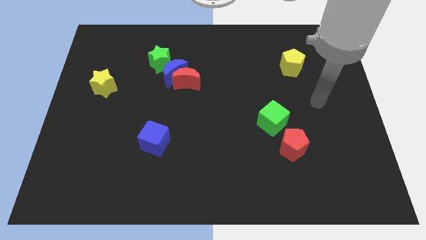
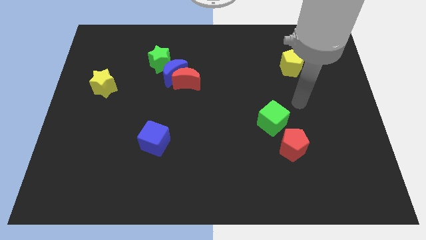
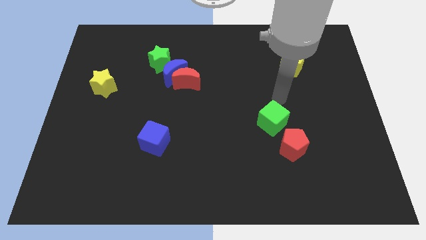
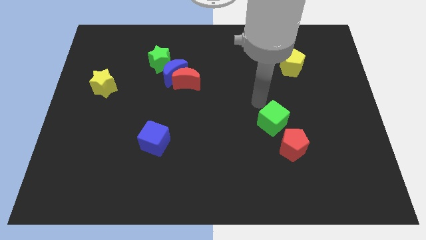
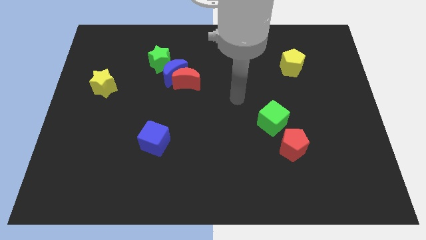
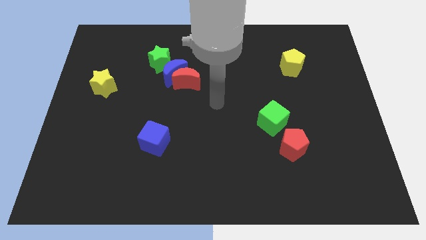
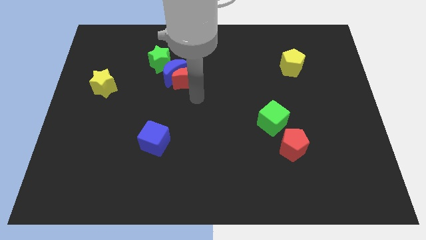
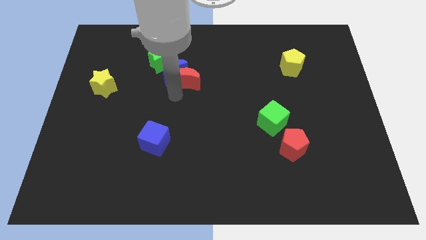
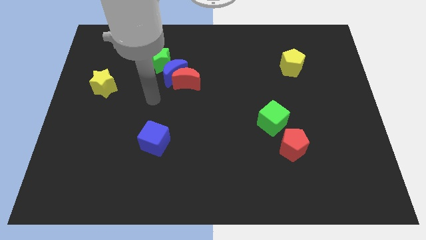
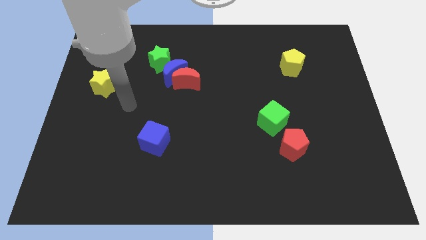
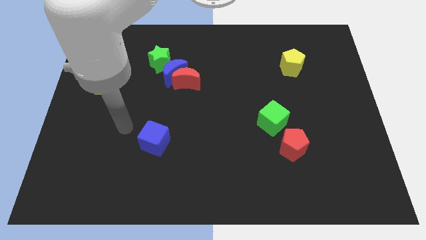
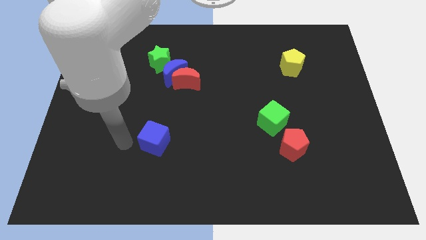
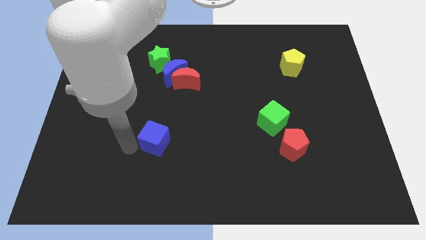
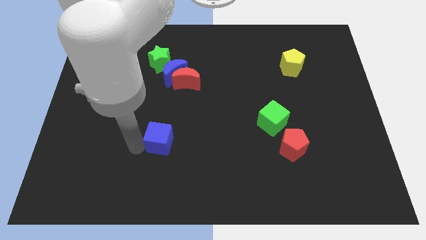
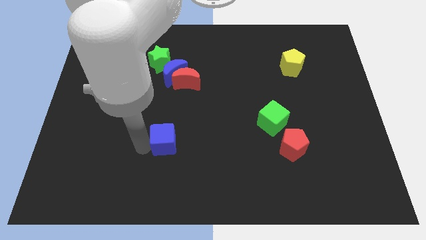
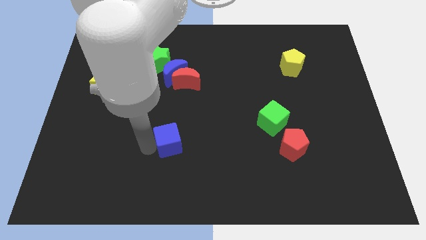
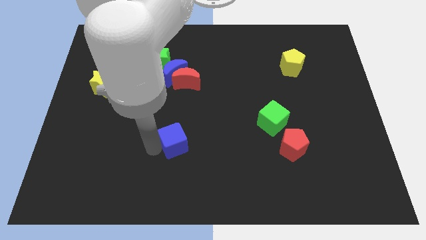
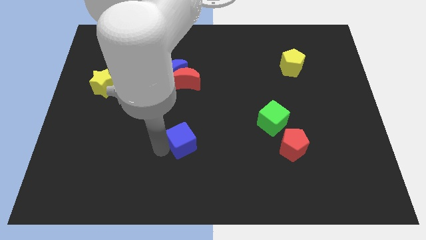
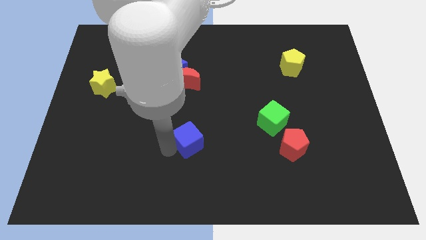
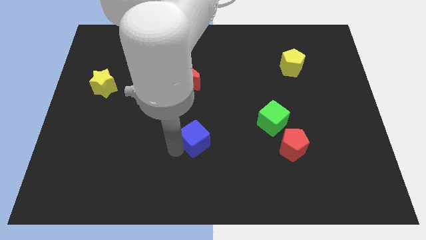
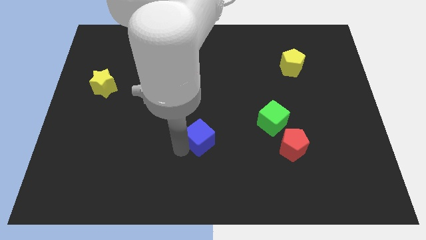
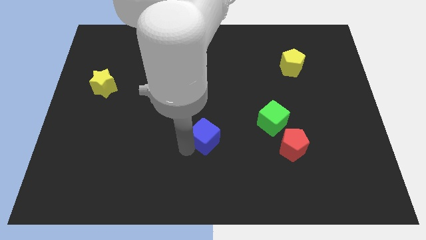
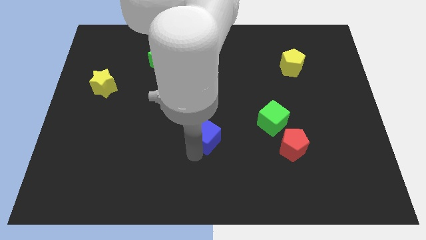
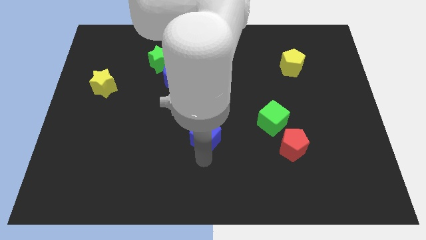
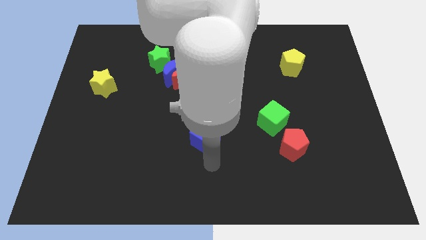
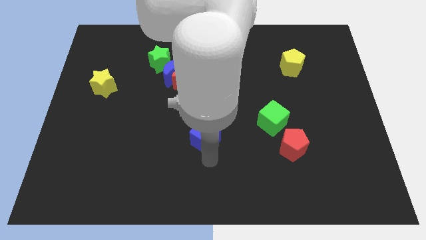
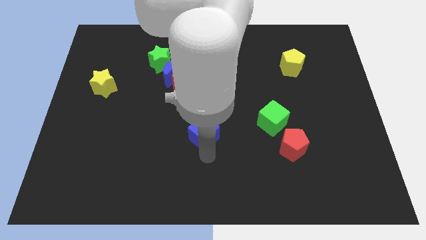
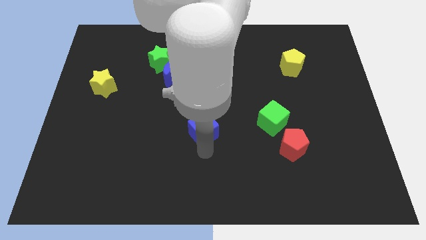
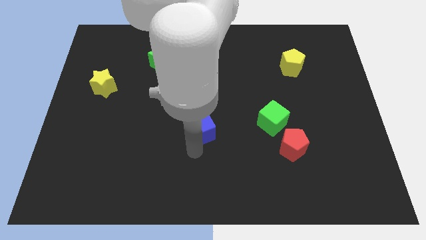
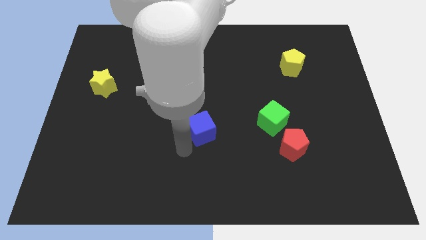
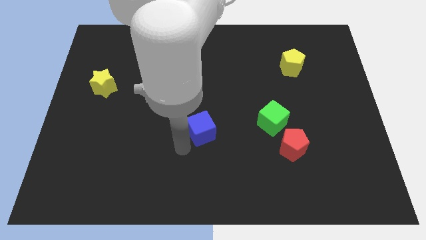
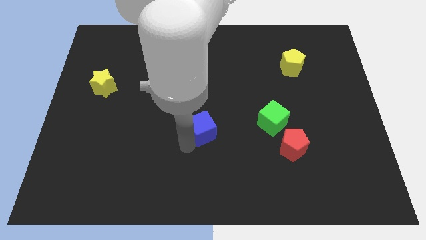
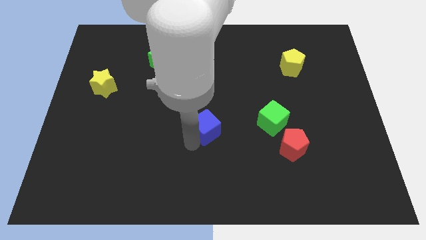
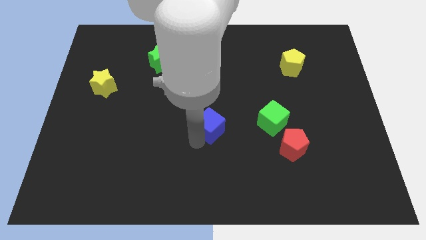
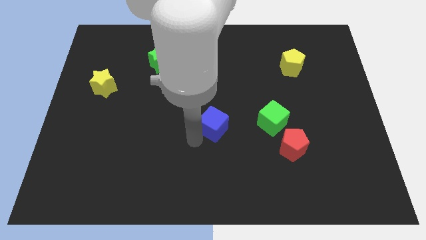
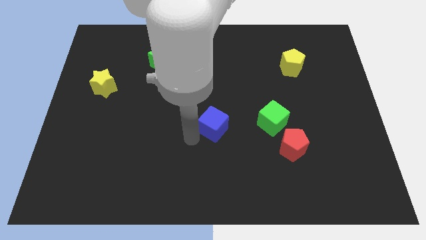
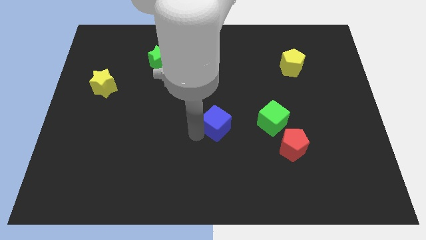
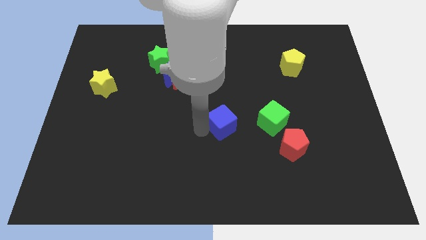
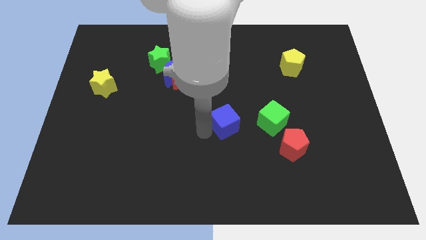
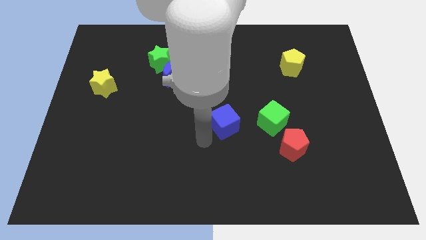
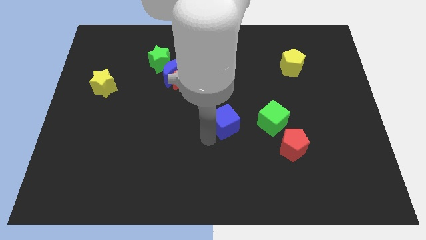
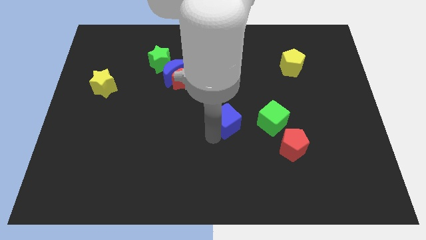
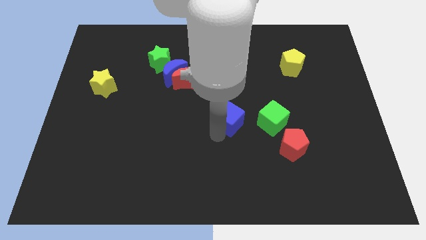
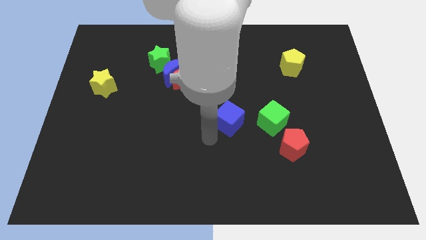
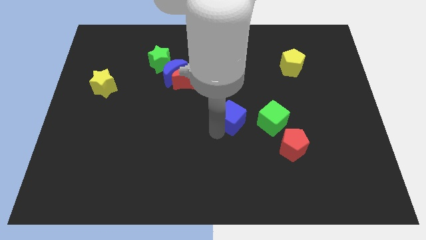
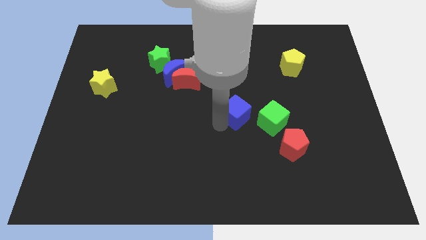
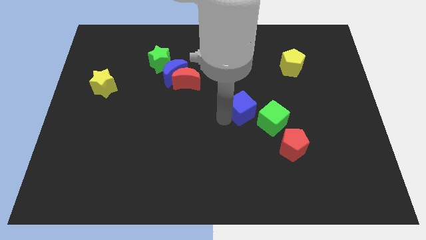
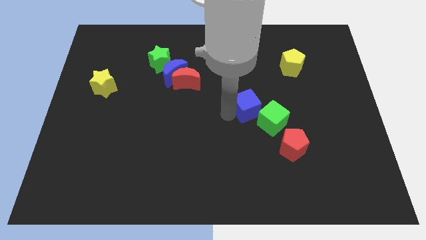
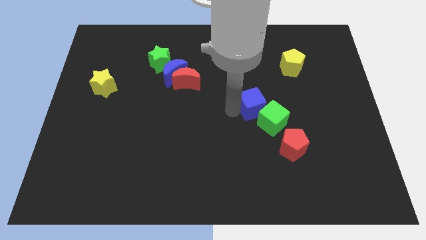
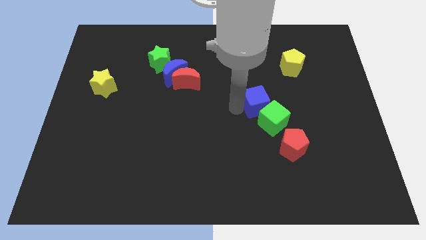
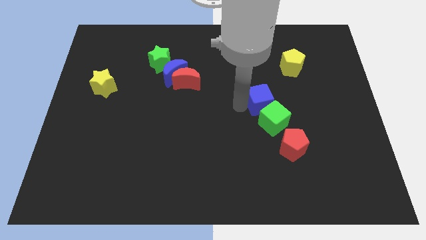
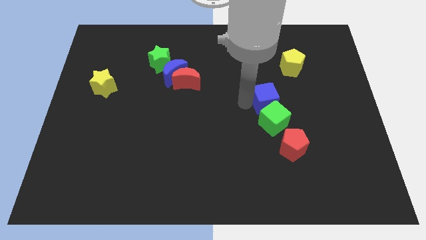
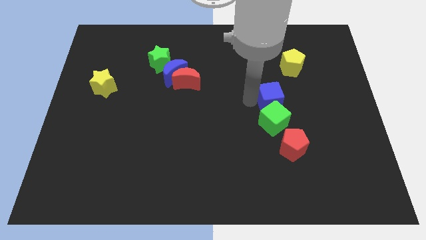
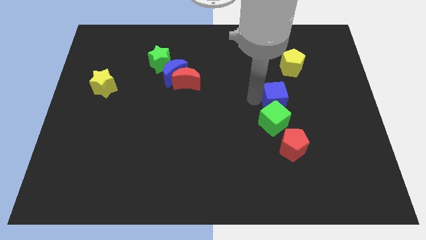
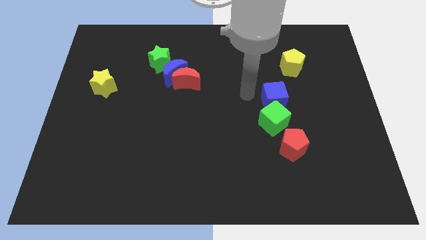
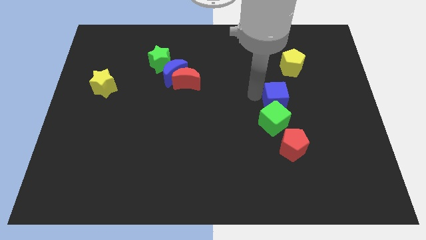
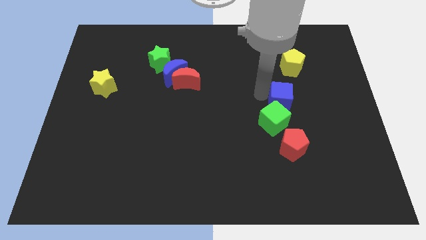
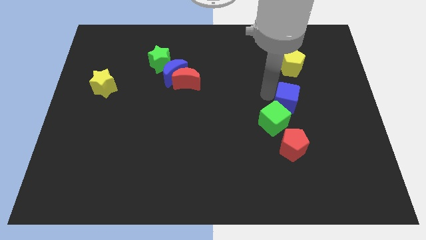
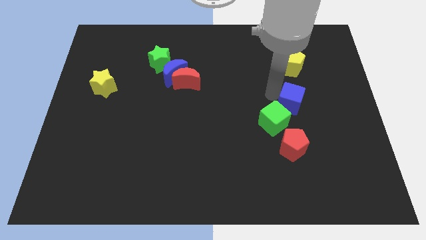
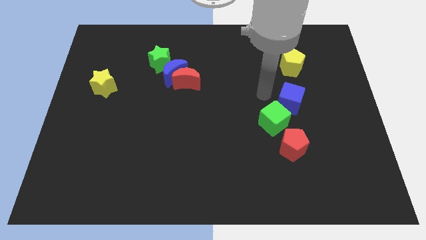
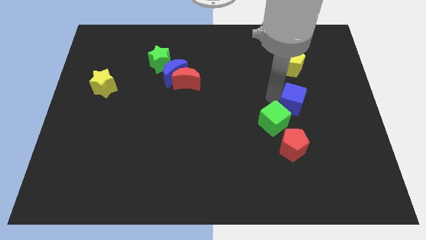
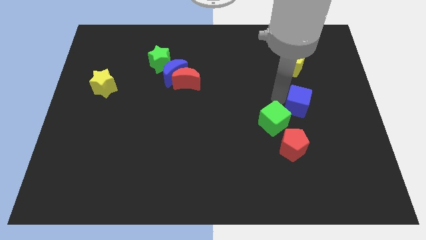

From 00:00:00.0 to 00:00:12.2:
push the blue cube to the right of the green cube

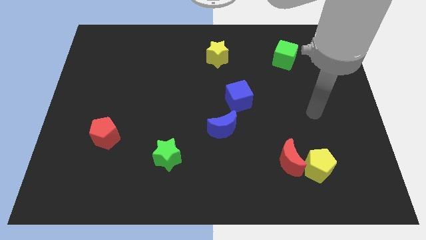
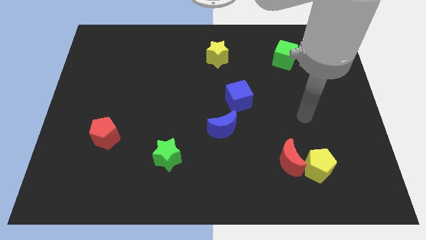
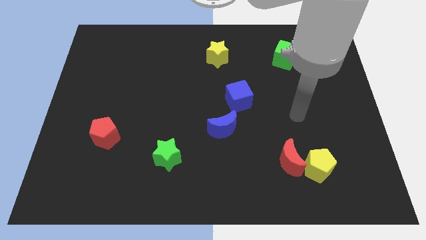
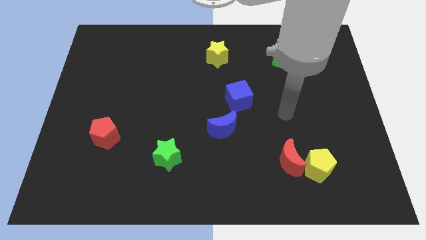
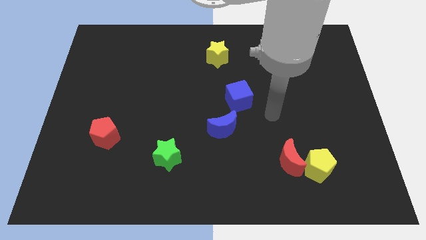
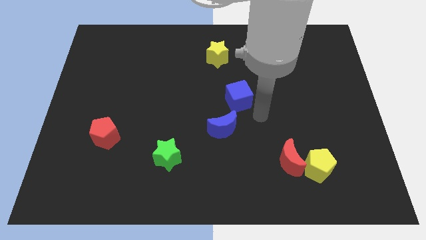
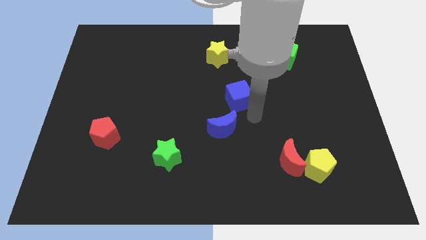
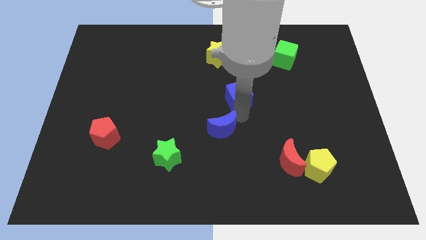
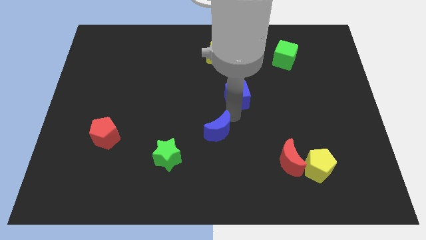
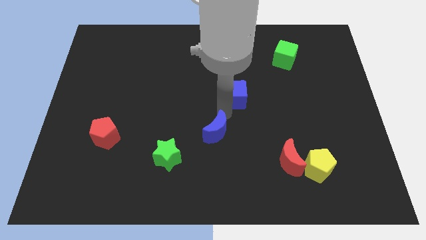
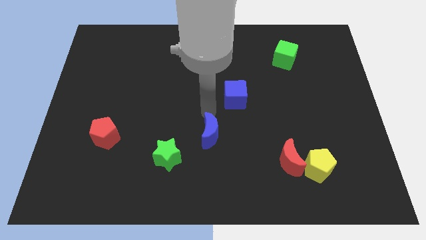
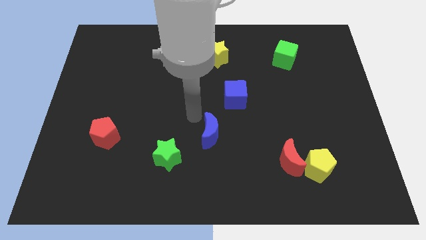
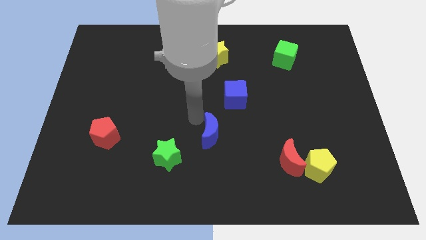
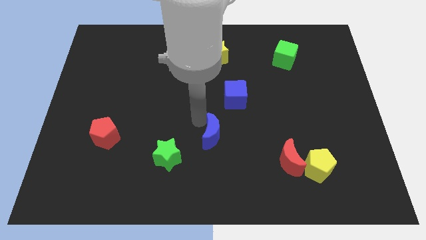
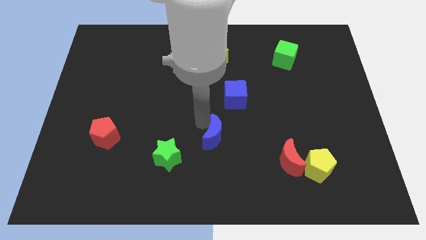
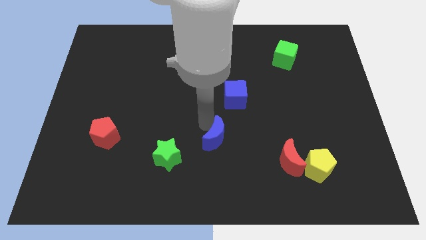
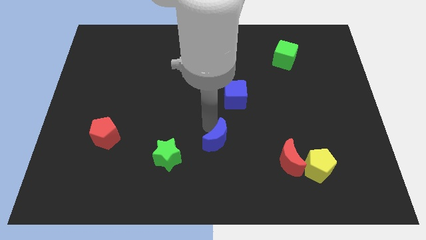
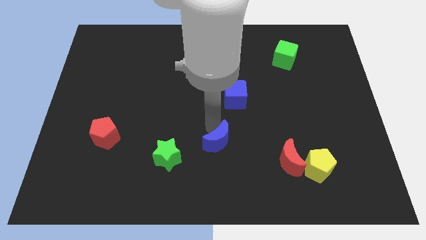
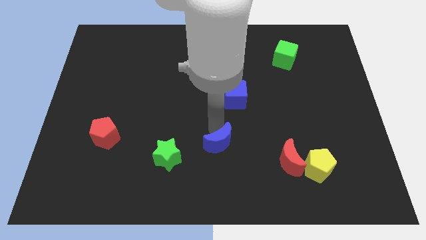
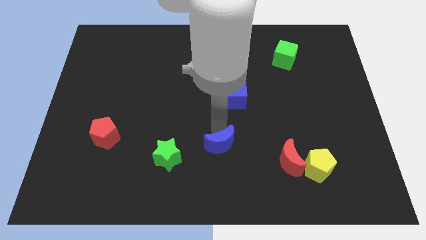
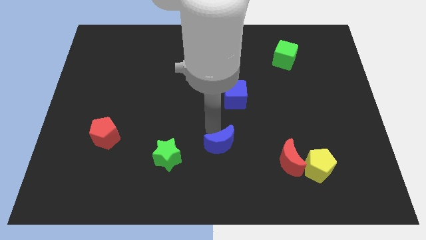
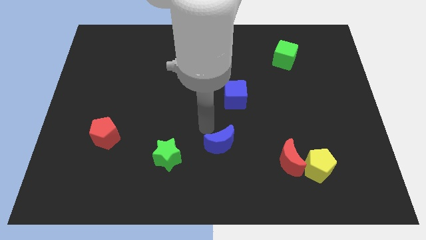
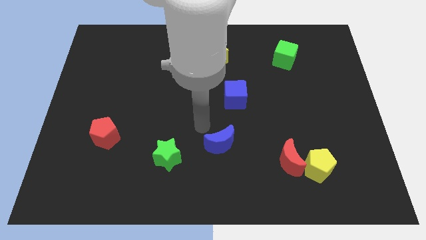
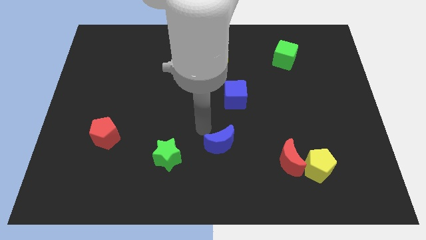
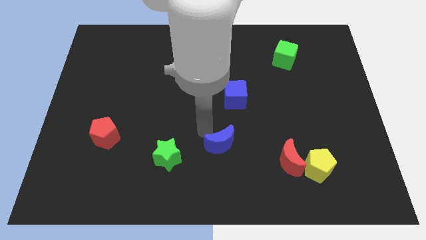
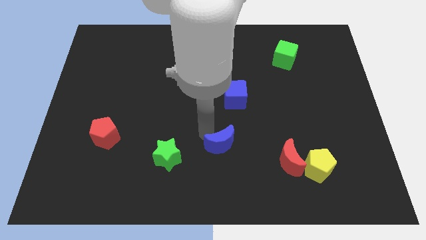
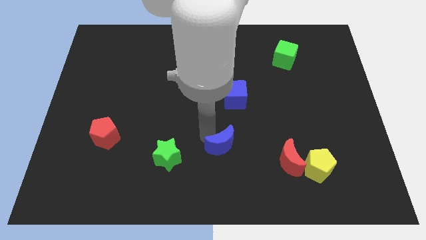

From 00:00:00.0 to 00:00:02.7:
push the blue moon to the left of the red moon
